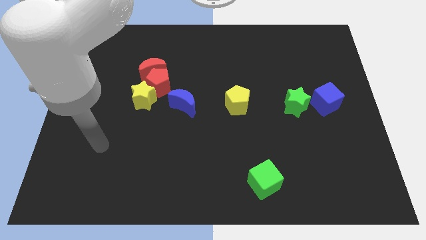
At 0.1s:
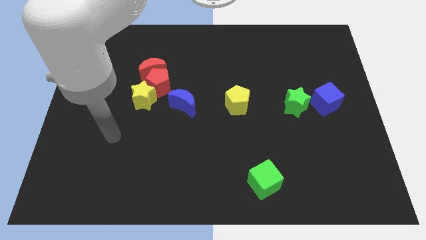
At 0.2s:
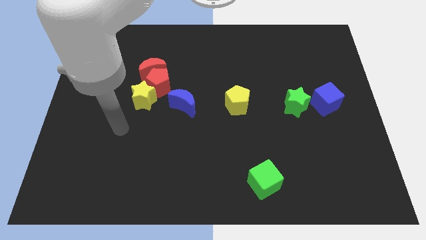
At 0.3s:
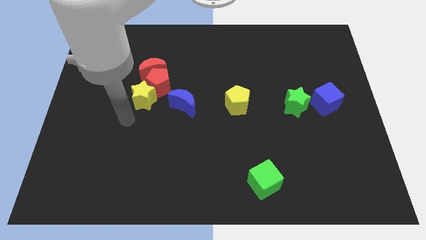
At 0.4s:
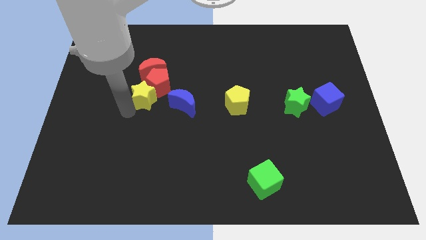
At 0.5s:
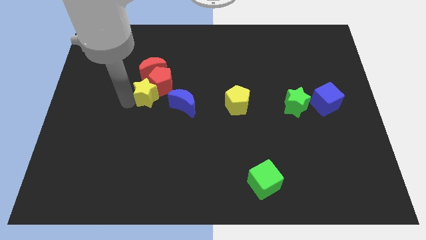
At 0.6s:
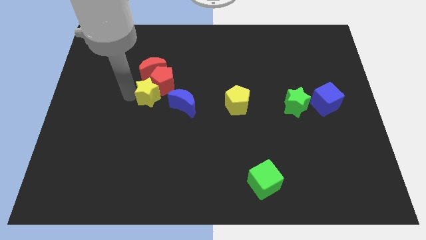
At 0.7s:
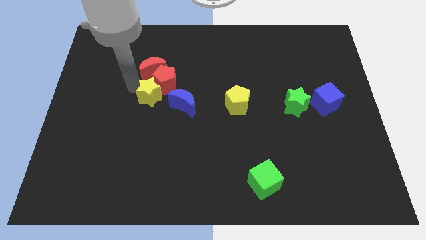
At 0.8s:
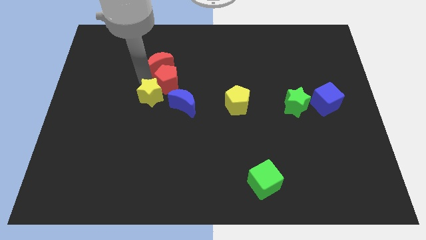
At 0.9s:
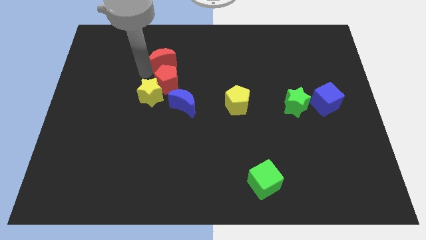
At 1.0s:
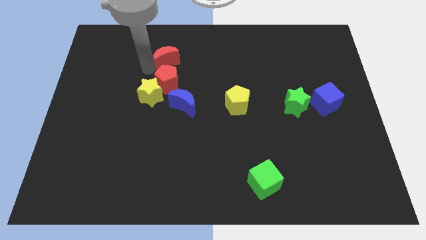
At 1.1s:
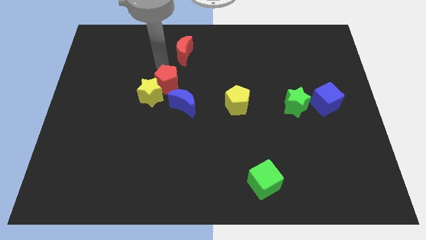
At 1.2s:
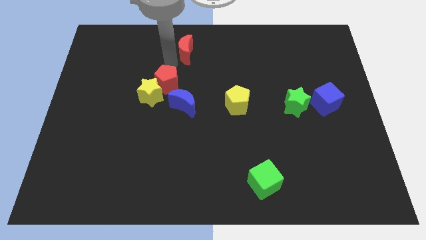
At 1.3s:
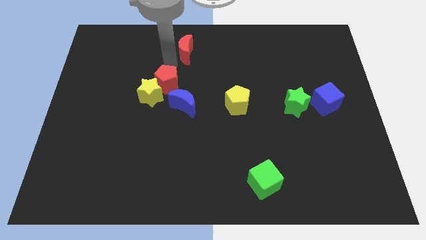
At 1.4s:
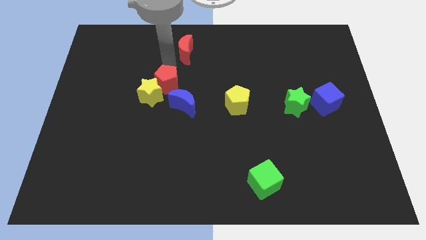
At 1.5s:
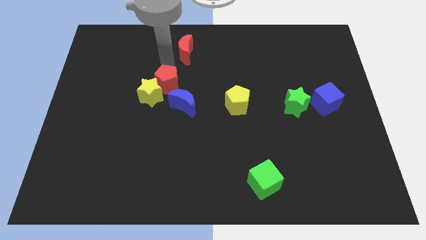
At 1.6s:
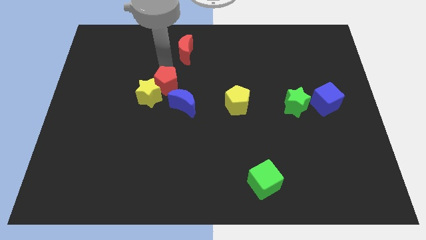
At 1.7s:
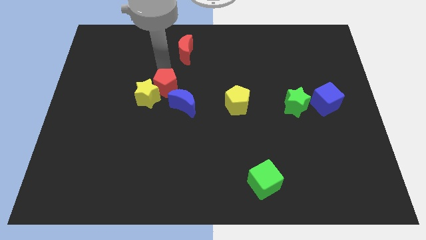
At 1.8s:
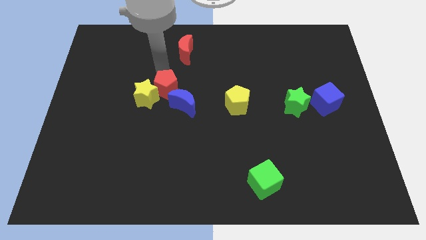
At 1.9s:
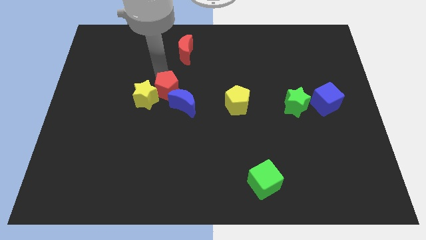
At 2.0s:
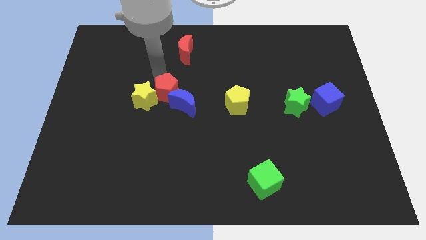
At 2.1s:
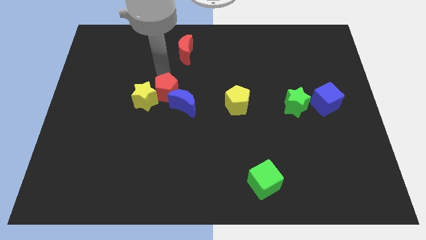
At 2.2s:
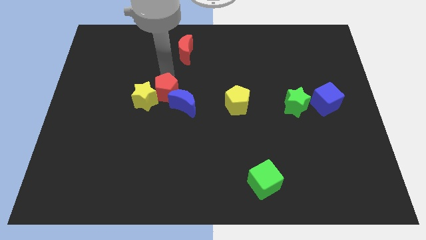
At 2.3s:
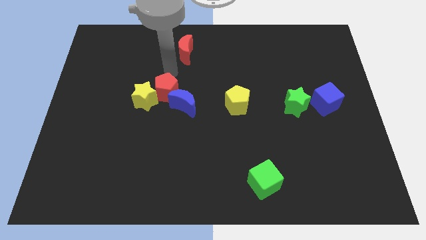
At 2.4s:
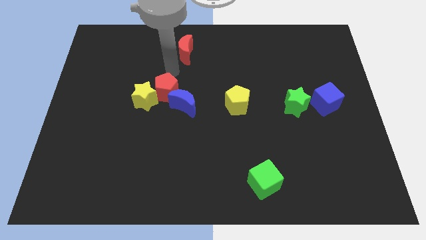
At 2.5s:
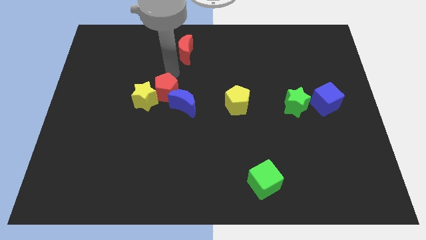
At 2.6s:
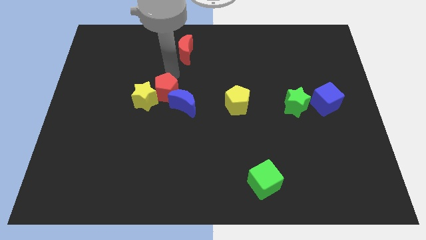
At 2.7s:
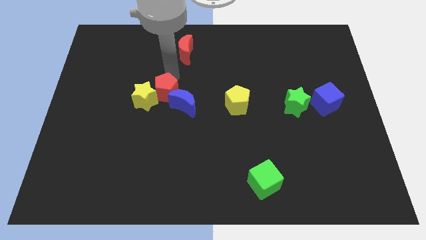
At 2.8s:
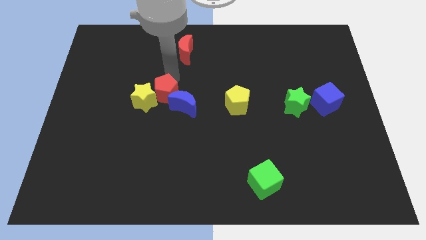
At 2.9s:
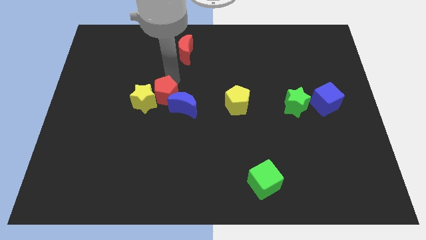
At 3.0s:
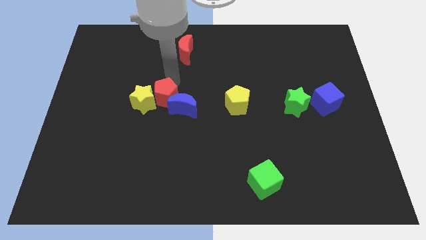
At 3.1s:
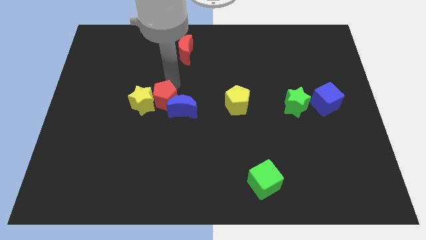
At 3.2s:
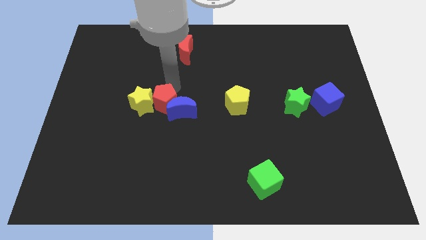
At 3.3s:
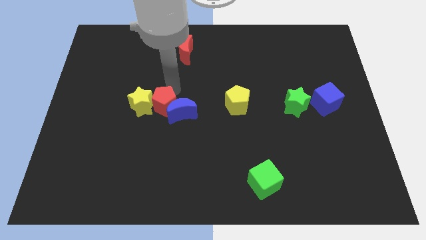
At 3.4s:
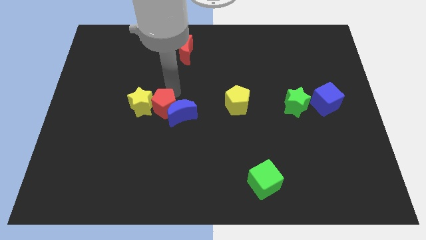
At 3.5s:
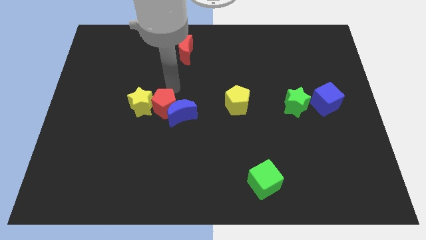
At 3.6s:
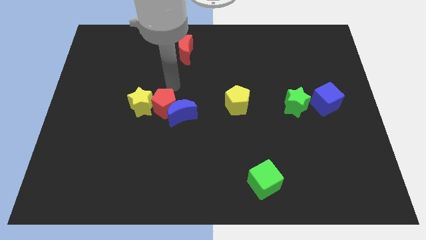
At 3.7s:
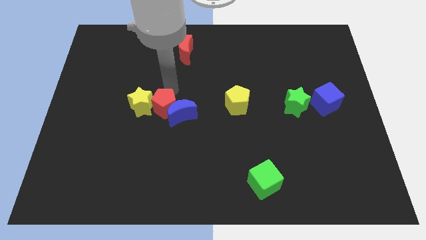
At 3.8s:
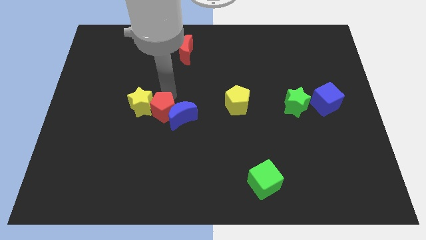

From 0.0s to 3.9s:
slightly move the red pentagon downwards

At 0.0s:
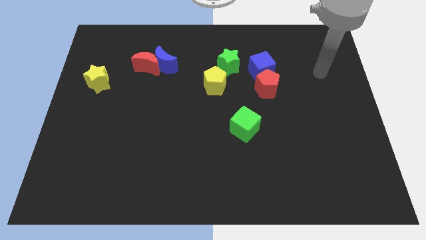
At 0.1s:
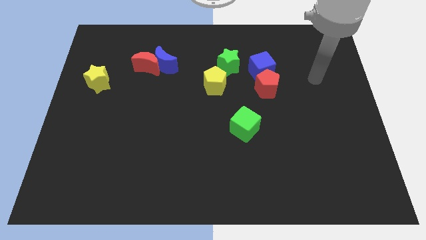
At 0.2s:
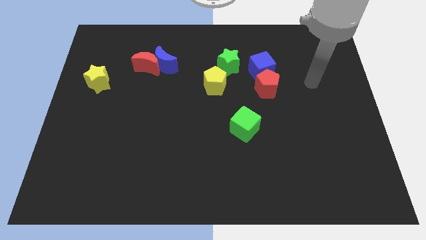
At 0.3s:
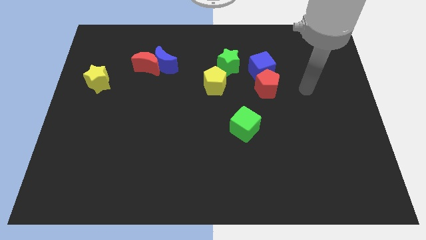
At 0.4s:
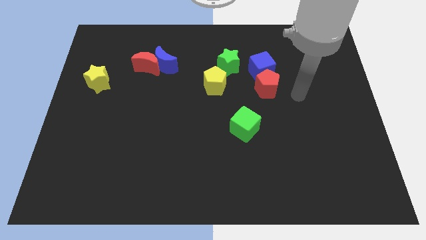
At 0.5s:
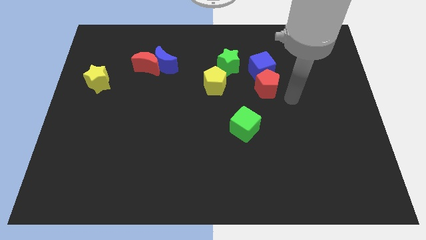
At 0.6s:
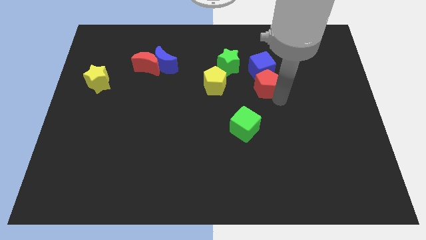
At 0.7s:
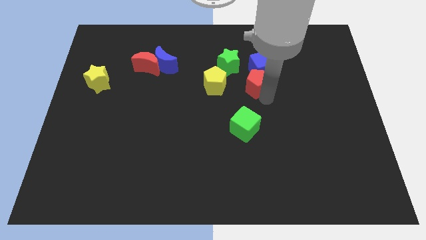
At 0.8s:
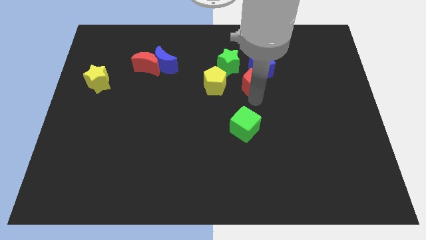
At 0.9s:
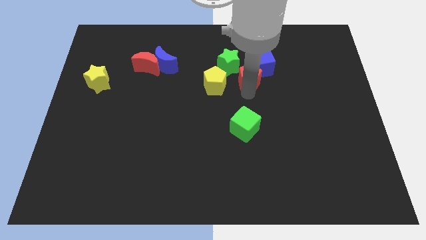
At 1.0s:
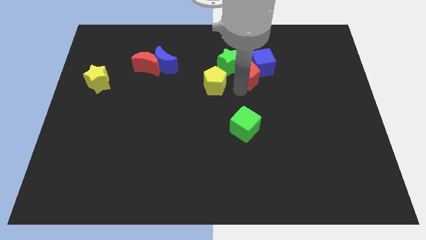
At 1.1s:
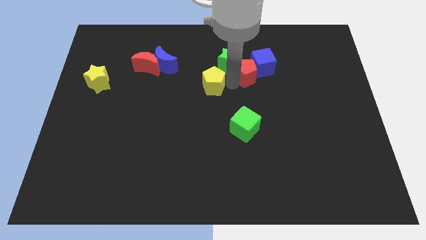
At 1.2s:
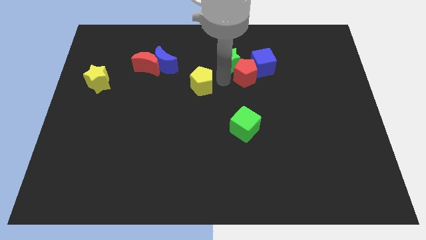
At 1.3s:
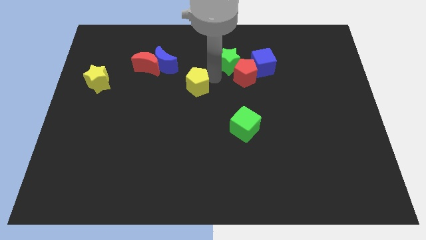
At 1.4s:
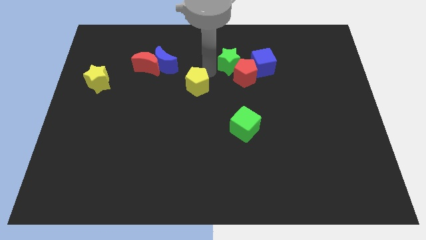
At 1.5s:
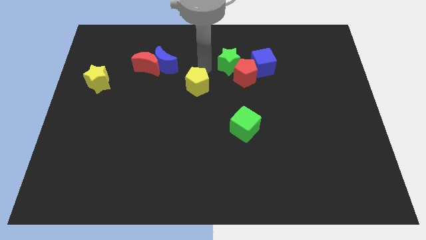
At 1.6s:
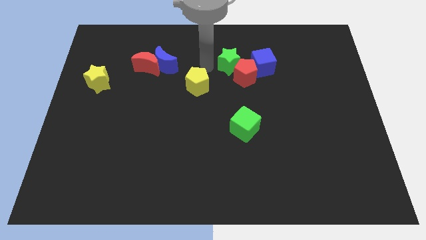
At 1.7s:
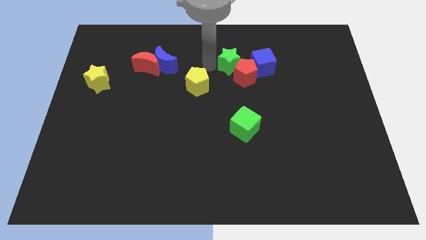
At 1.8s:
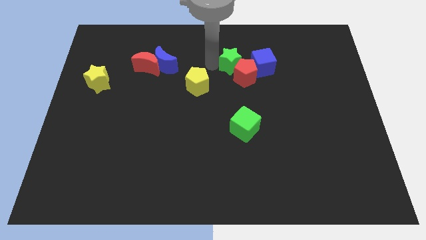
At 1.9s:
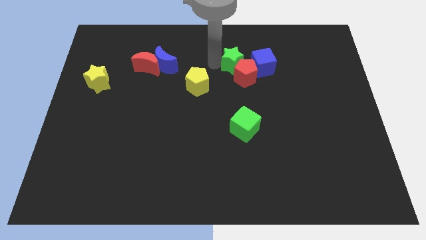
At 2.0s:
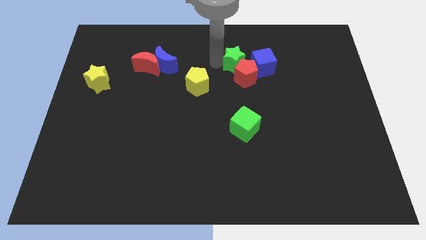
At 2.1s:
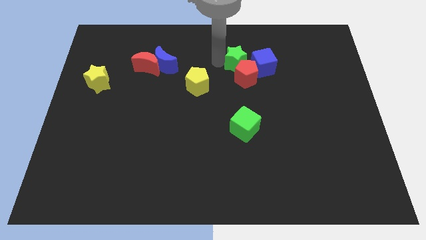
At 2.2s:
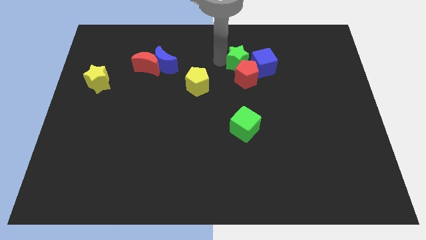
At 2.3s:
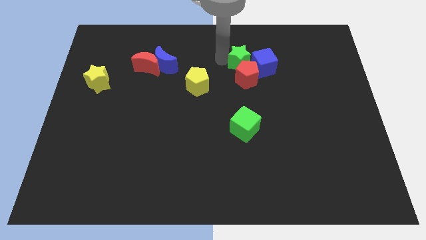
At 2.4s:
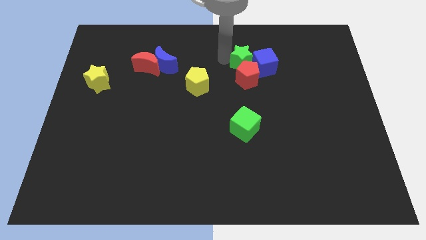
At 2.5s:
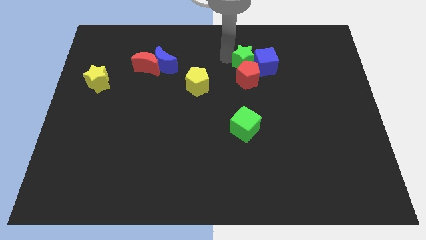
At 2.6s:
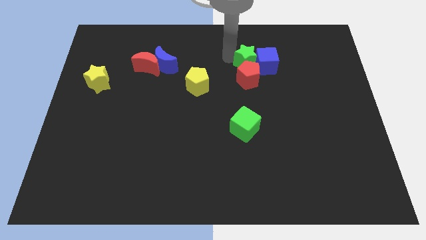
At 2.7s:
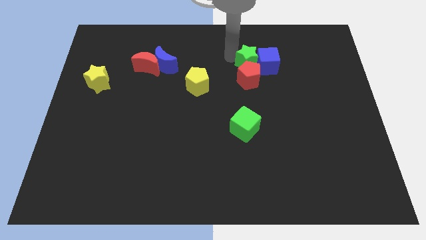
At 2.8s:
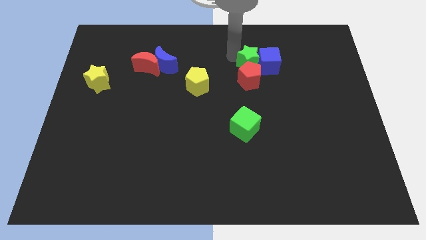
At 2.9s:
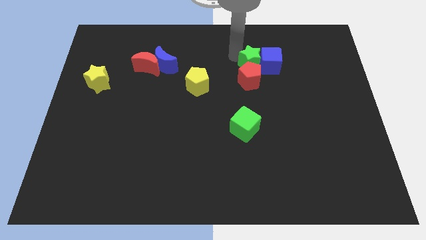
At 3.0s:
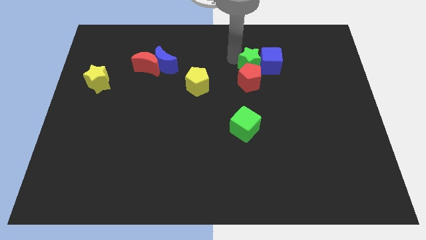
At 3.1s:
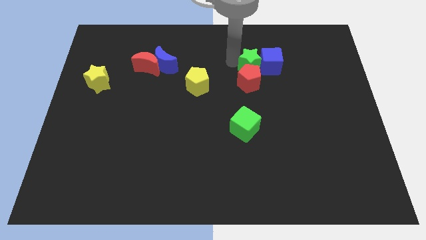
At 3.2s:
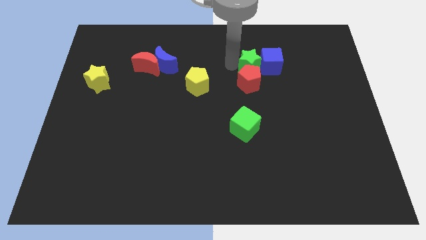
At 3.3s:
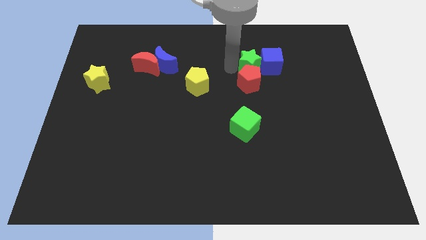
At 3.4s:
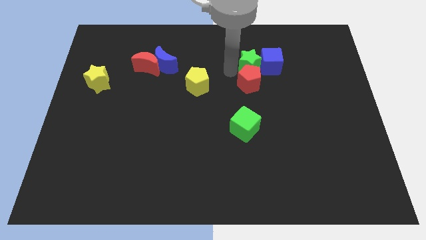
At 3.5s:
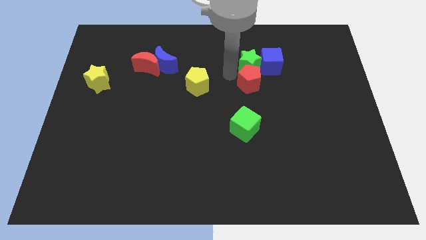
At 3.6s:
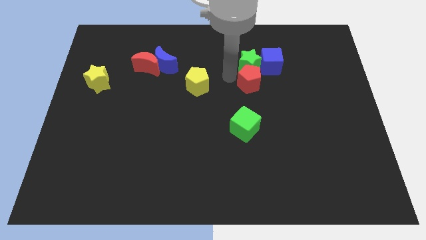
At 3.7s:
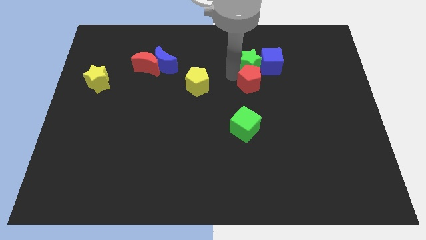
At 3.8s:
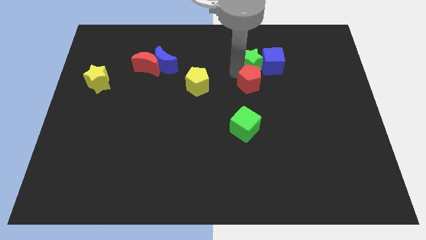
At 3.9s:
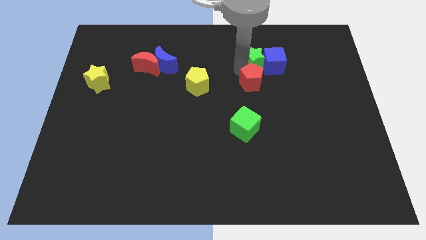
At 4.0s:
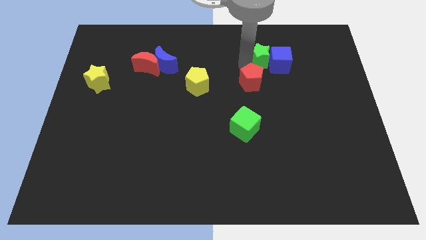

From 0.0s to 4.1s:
move the green star a bit to the right
